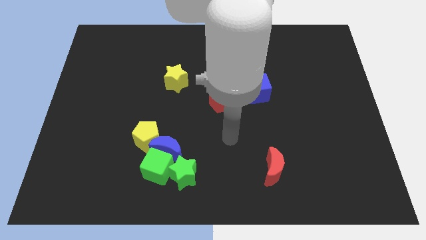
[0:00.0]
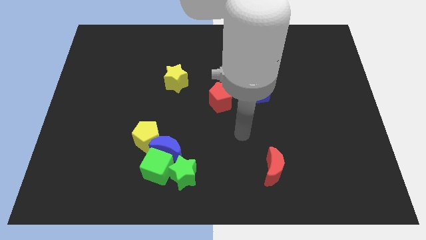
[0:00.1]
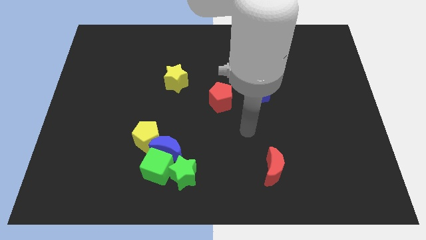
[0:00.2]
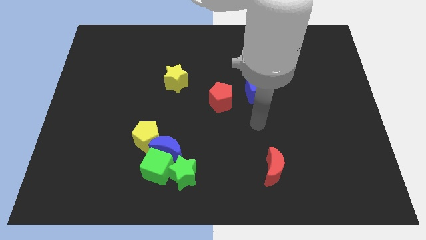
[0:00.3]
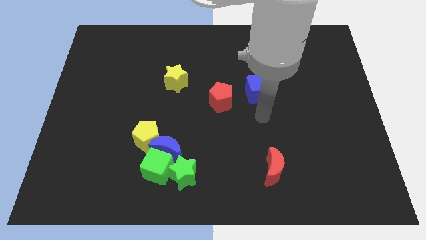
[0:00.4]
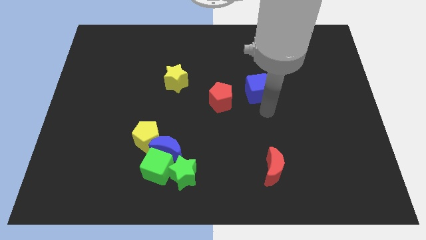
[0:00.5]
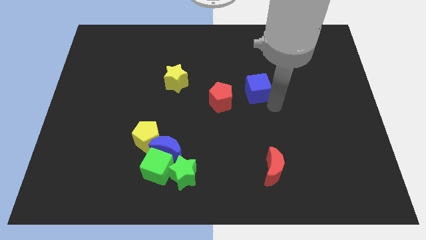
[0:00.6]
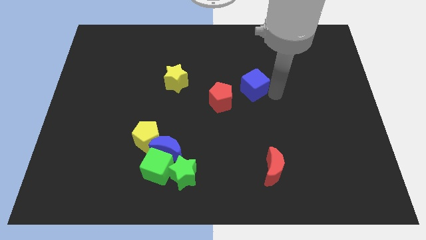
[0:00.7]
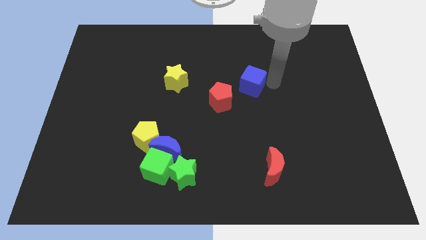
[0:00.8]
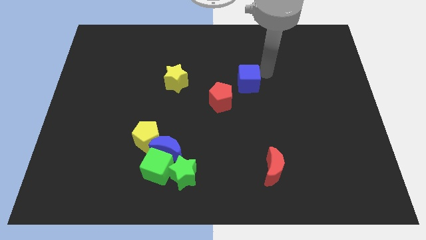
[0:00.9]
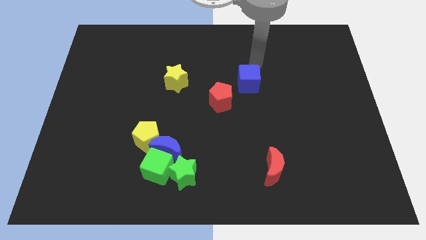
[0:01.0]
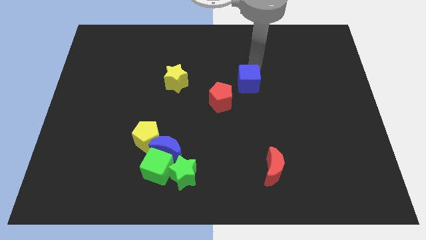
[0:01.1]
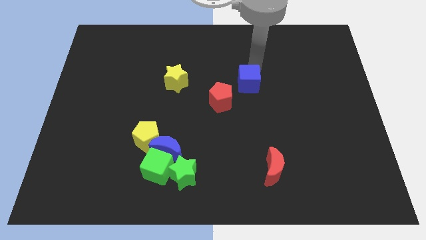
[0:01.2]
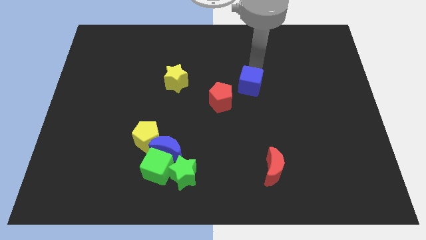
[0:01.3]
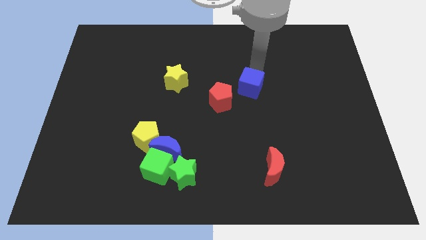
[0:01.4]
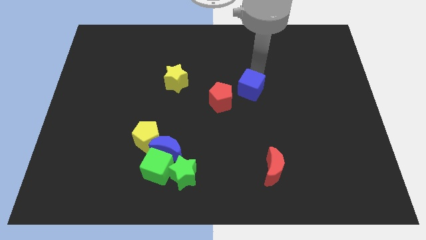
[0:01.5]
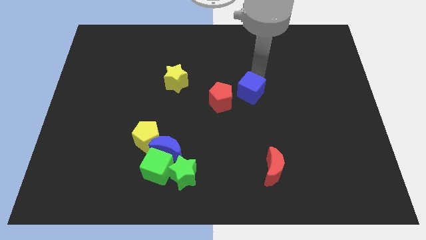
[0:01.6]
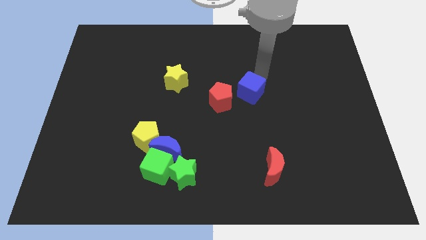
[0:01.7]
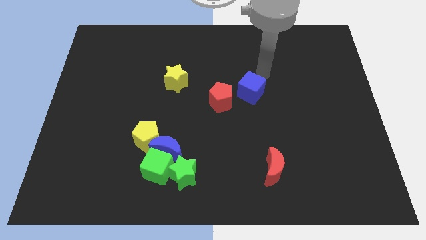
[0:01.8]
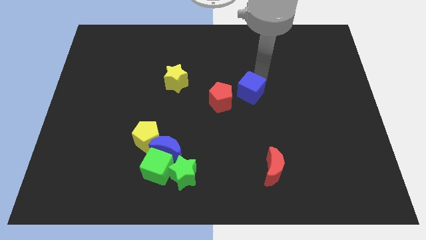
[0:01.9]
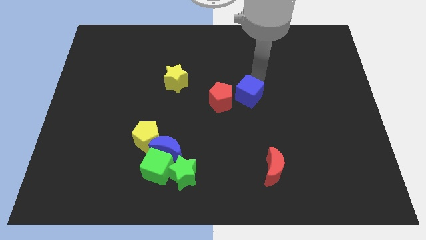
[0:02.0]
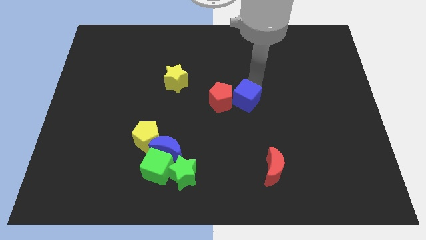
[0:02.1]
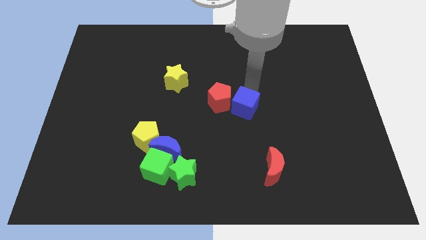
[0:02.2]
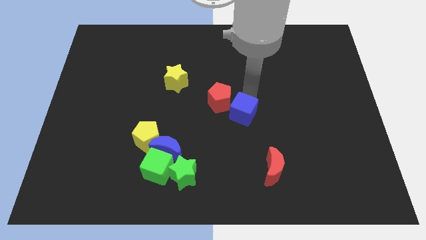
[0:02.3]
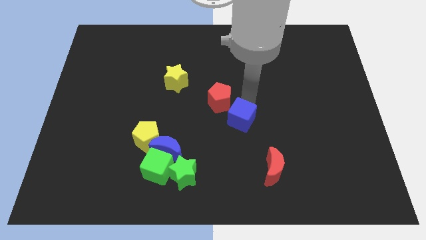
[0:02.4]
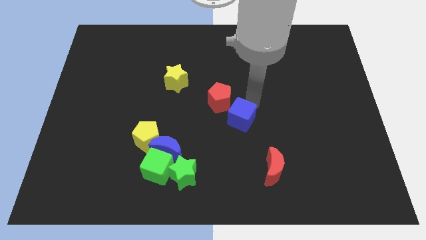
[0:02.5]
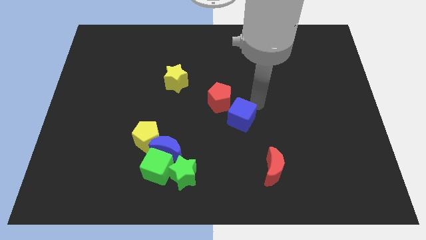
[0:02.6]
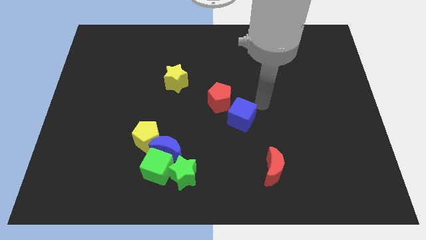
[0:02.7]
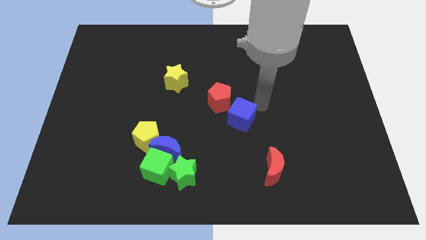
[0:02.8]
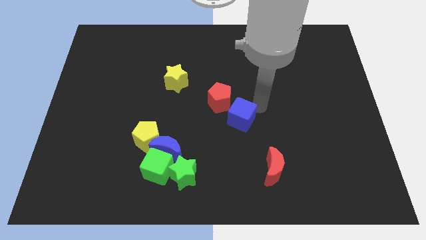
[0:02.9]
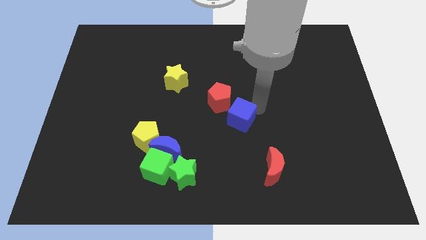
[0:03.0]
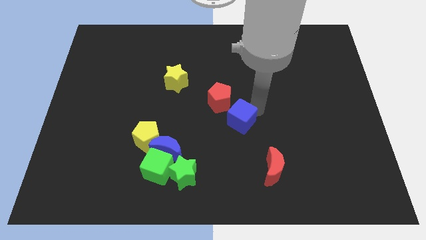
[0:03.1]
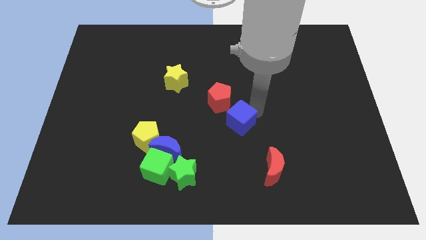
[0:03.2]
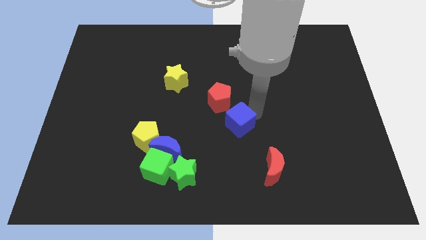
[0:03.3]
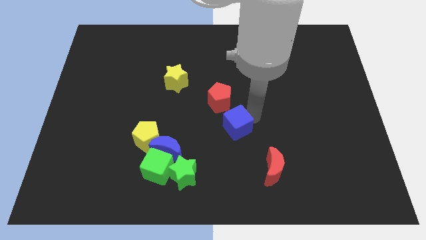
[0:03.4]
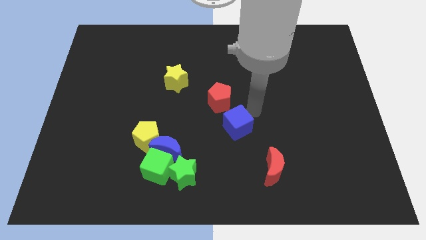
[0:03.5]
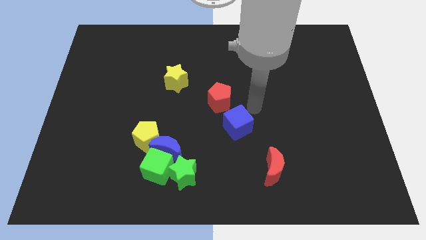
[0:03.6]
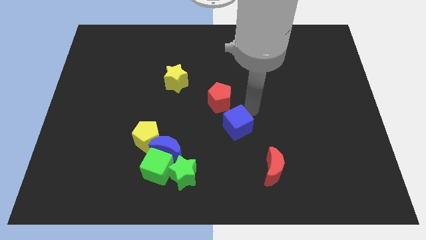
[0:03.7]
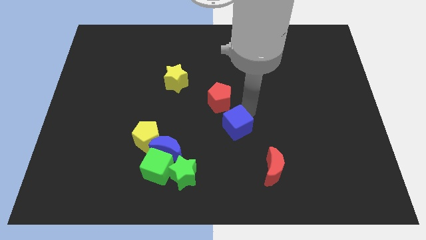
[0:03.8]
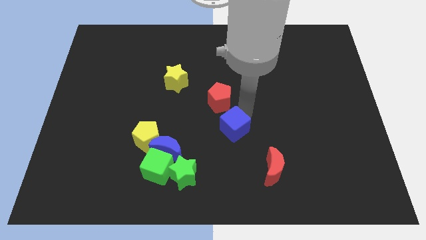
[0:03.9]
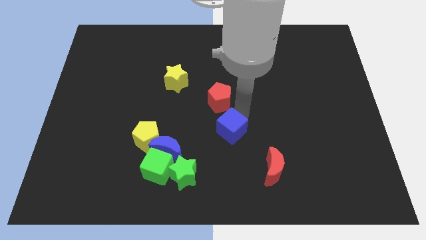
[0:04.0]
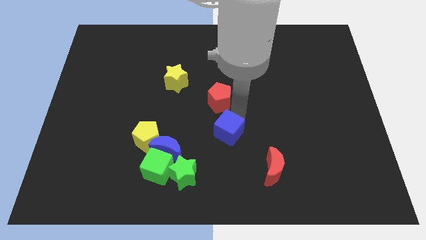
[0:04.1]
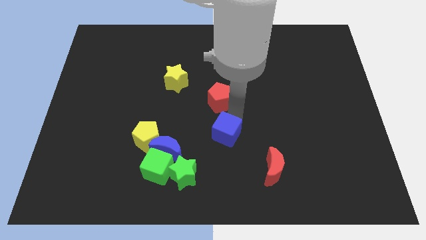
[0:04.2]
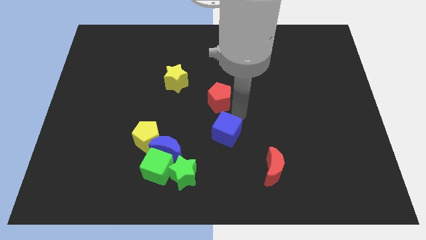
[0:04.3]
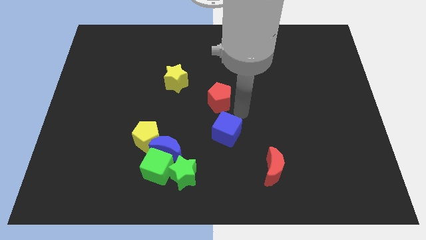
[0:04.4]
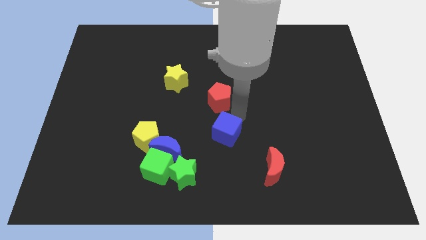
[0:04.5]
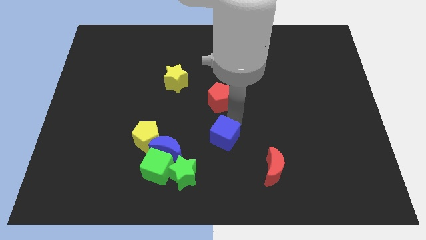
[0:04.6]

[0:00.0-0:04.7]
move the blue cube to the top right of the green star

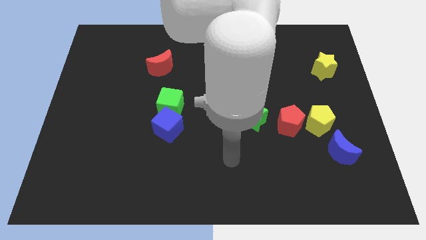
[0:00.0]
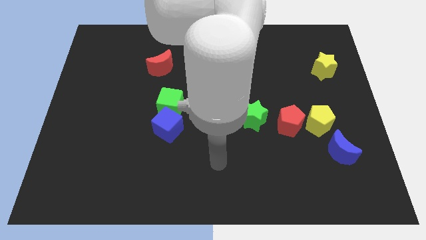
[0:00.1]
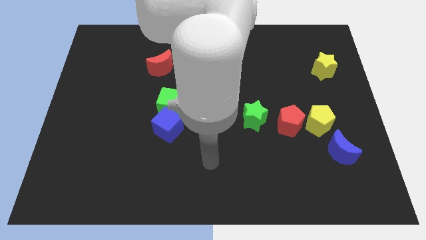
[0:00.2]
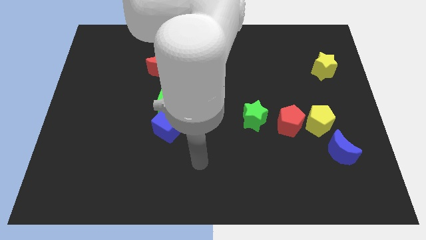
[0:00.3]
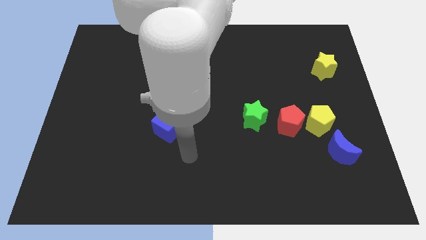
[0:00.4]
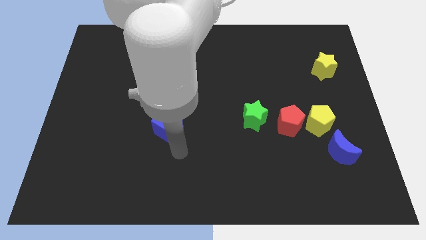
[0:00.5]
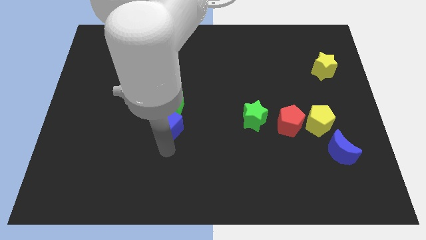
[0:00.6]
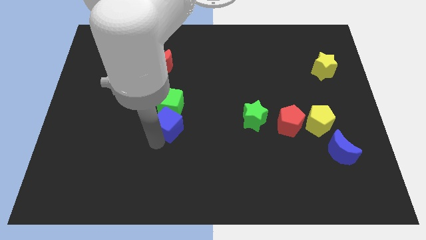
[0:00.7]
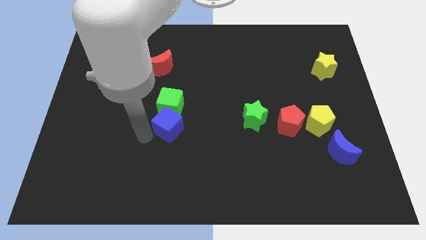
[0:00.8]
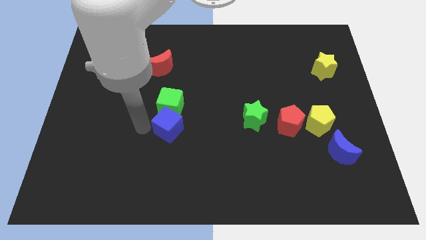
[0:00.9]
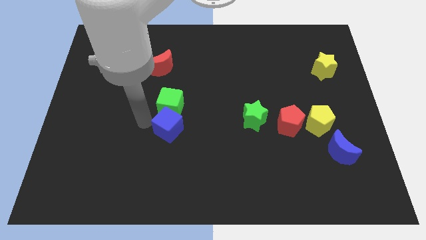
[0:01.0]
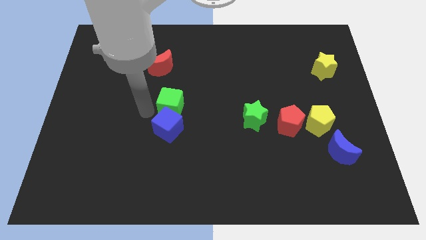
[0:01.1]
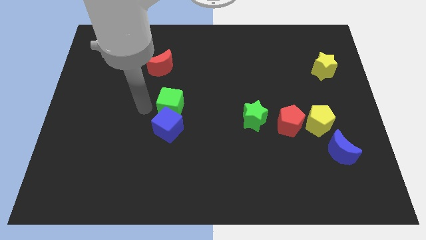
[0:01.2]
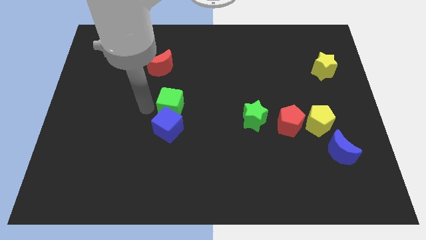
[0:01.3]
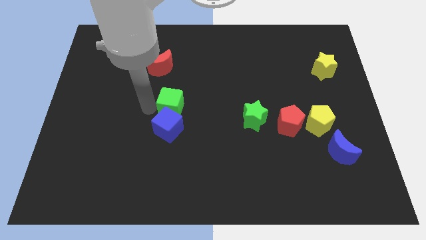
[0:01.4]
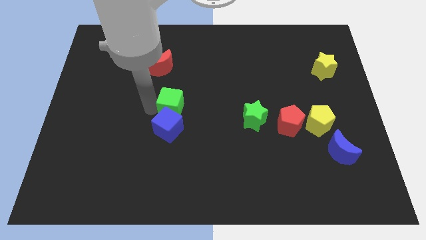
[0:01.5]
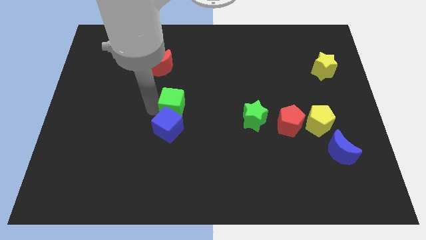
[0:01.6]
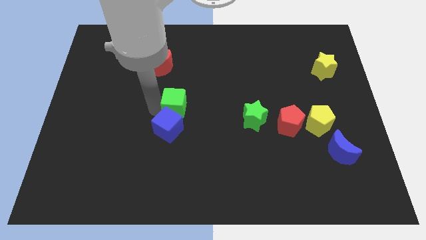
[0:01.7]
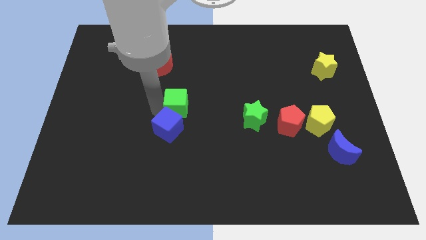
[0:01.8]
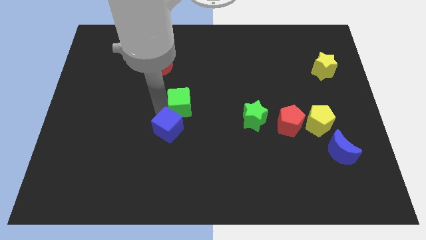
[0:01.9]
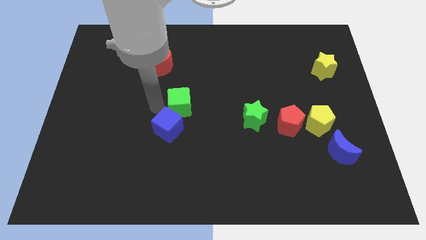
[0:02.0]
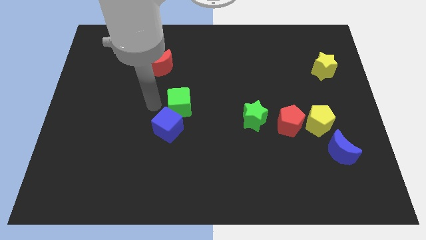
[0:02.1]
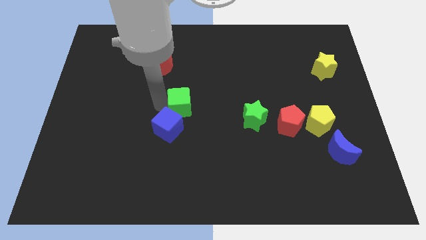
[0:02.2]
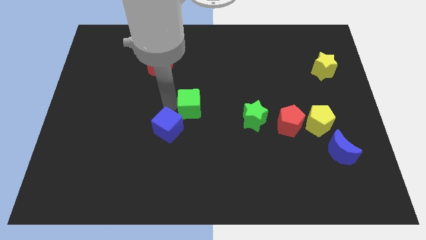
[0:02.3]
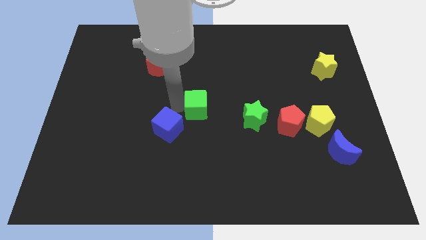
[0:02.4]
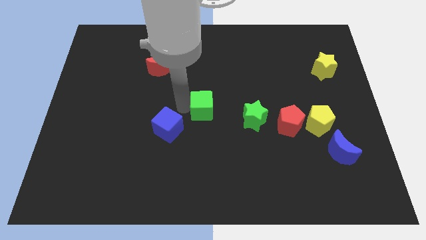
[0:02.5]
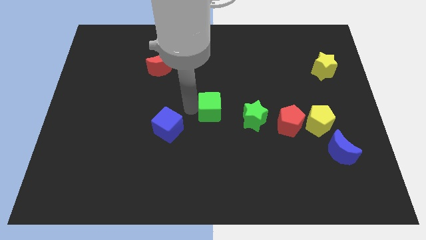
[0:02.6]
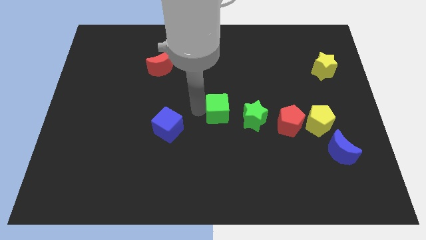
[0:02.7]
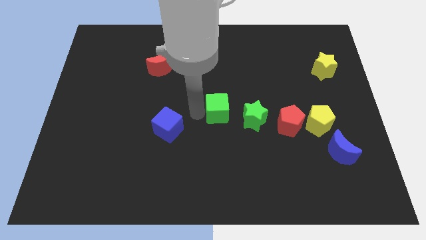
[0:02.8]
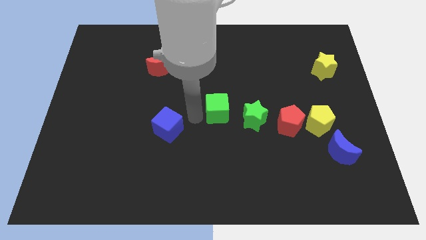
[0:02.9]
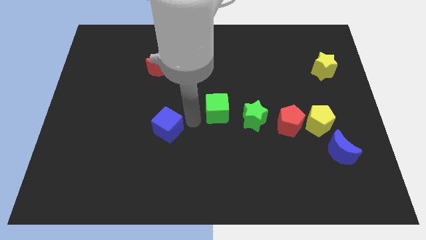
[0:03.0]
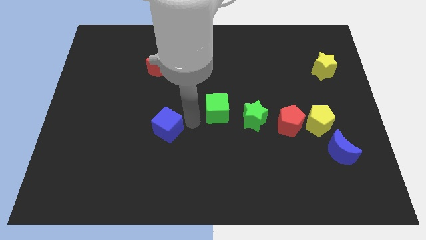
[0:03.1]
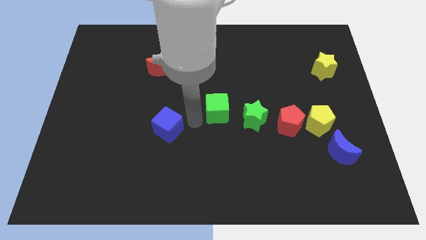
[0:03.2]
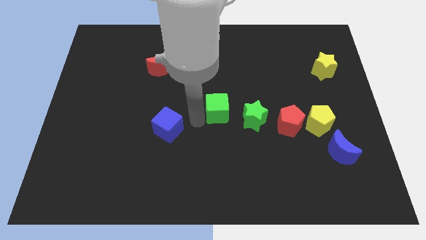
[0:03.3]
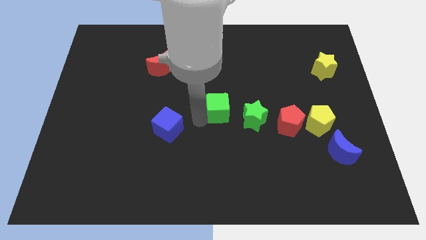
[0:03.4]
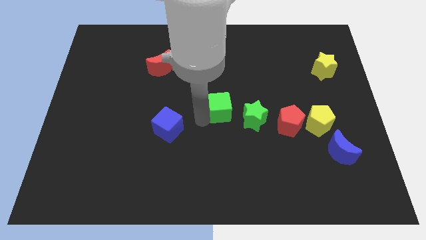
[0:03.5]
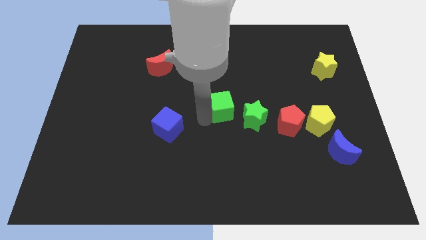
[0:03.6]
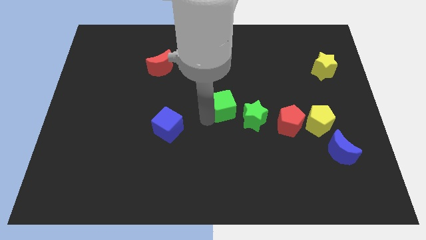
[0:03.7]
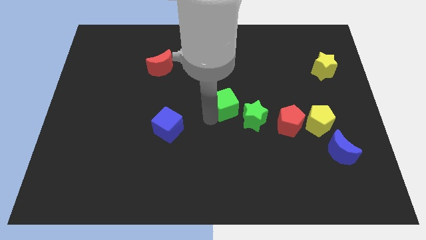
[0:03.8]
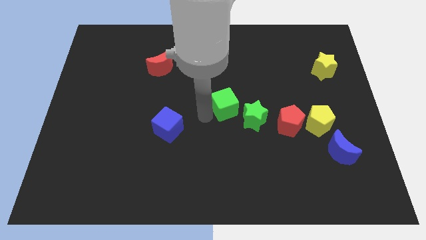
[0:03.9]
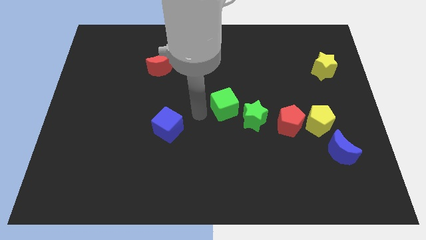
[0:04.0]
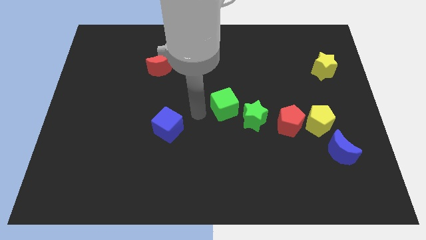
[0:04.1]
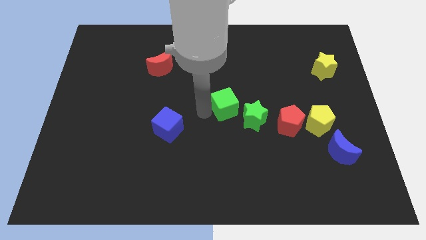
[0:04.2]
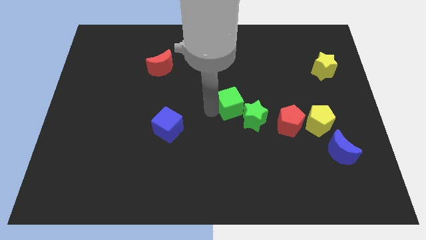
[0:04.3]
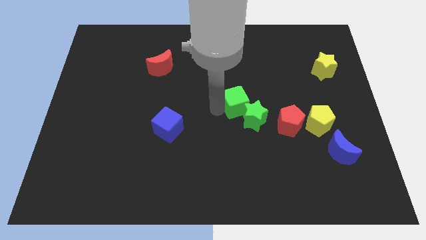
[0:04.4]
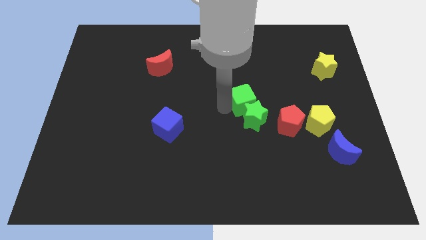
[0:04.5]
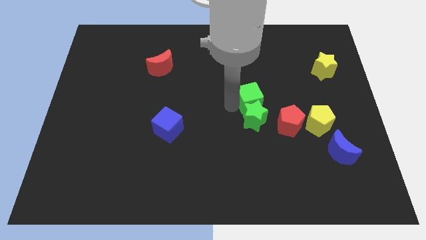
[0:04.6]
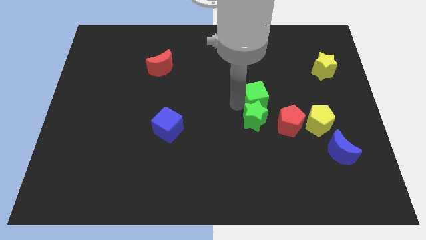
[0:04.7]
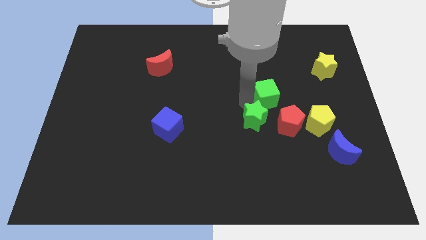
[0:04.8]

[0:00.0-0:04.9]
push the green cube to the top of the red pentagon
